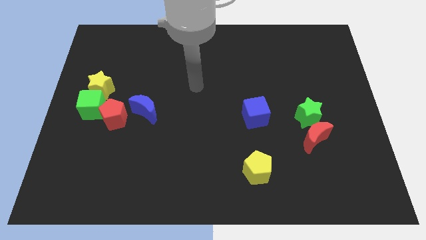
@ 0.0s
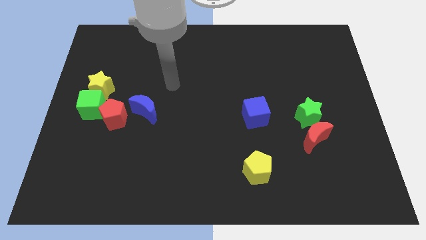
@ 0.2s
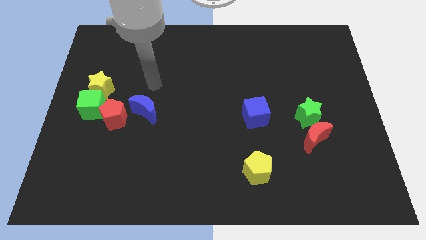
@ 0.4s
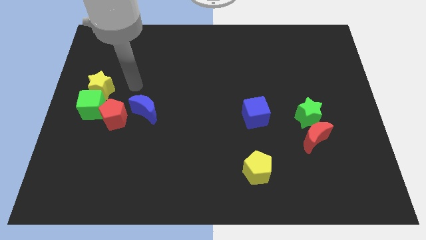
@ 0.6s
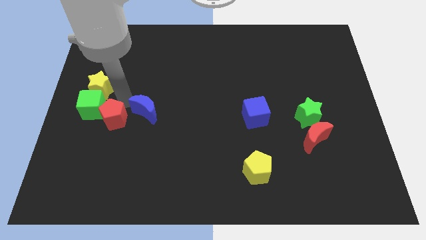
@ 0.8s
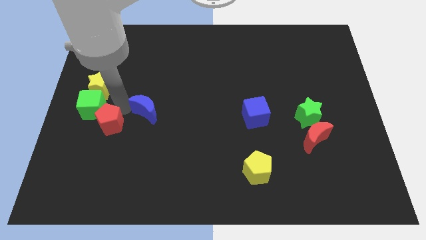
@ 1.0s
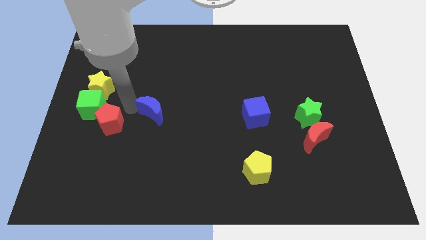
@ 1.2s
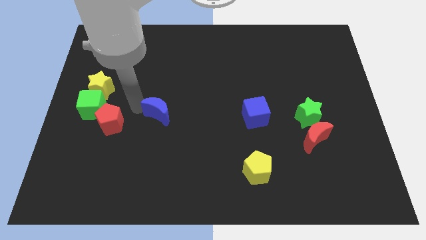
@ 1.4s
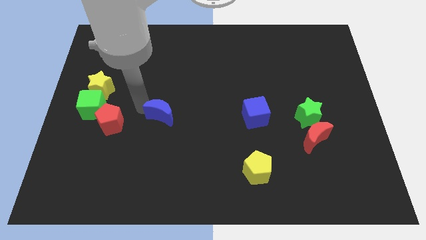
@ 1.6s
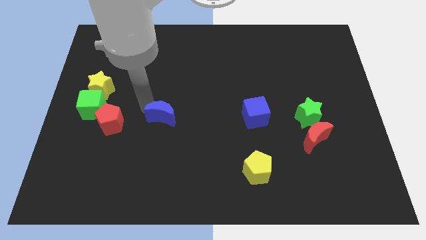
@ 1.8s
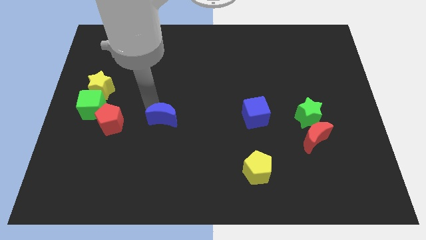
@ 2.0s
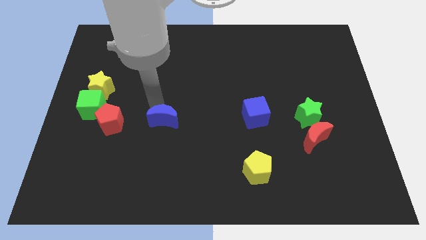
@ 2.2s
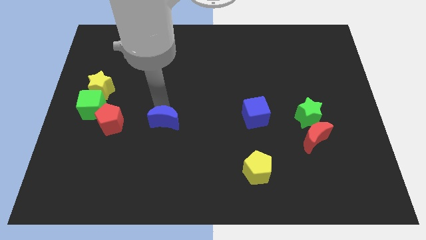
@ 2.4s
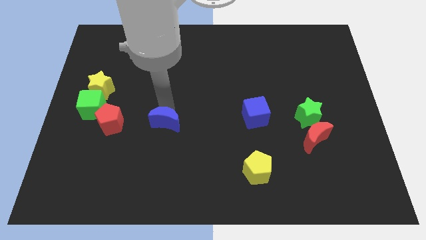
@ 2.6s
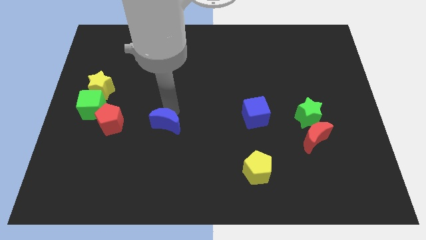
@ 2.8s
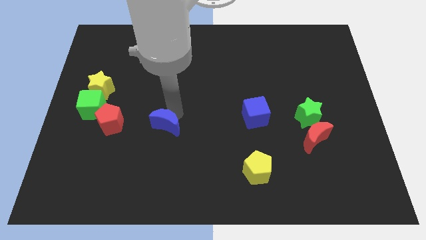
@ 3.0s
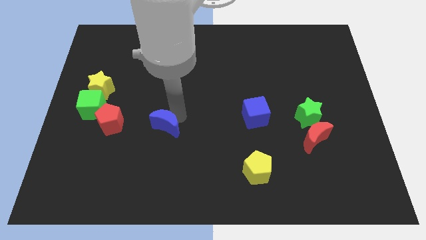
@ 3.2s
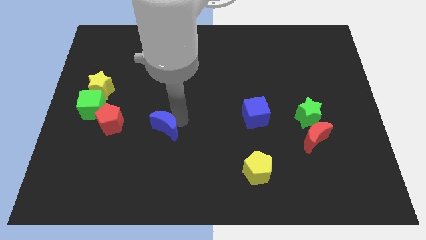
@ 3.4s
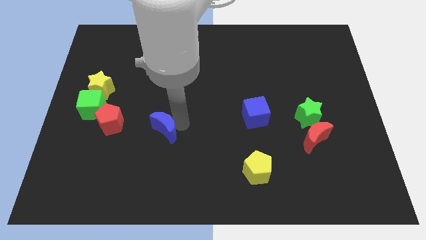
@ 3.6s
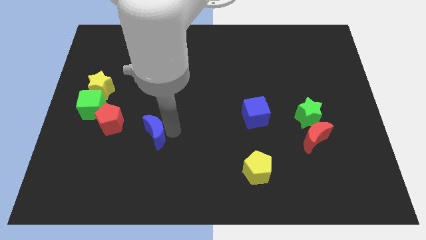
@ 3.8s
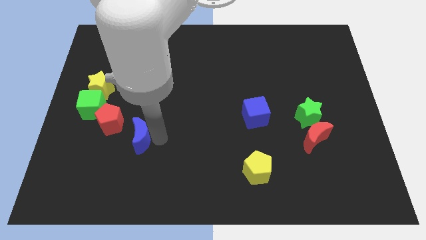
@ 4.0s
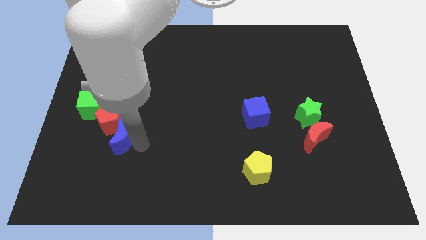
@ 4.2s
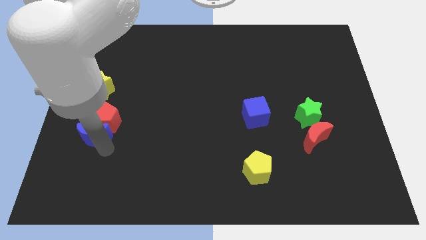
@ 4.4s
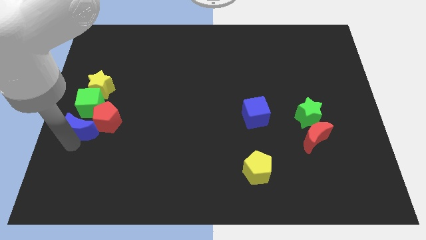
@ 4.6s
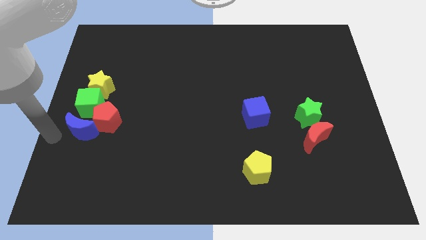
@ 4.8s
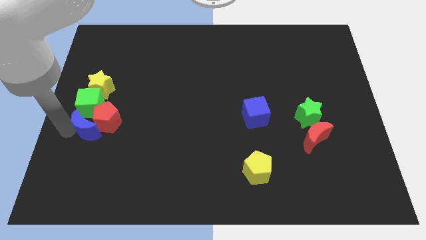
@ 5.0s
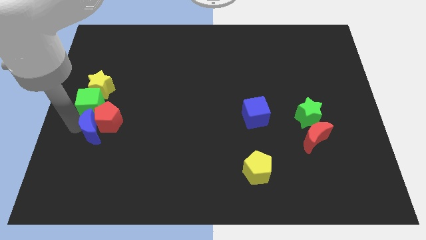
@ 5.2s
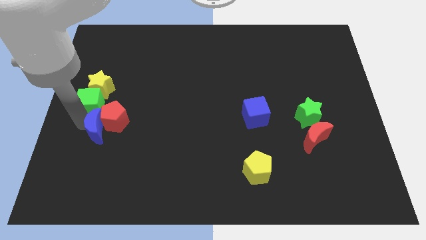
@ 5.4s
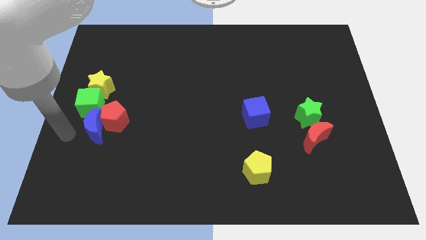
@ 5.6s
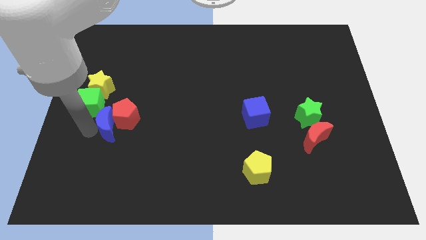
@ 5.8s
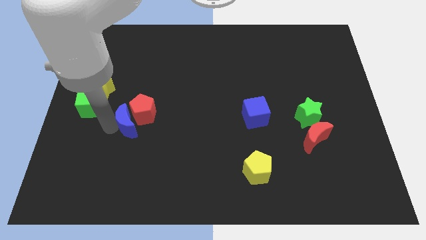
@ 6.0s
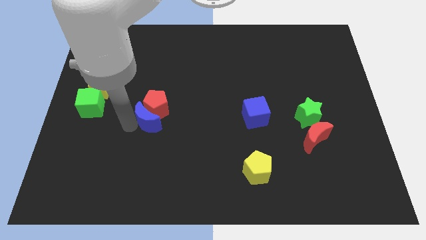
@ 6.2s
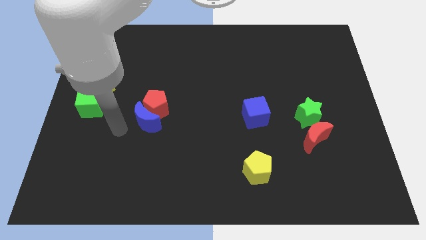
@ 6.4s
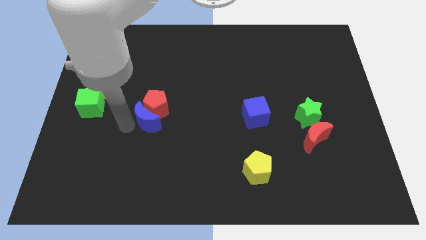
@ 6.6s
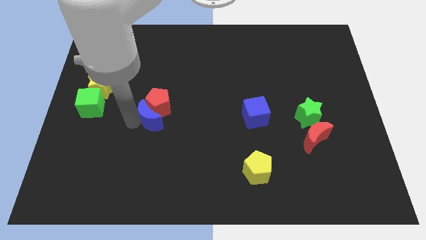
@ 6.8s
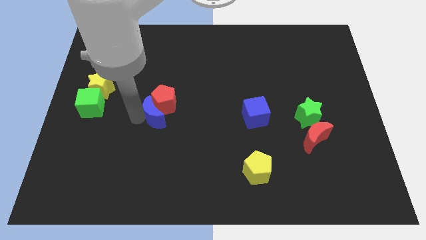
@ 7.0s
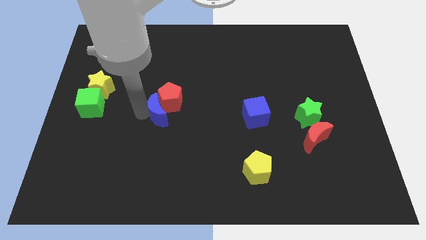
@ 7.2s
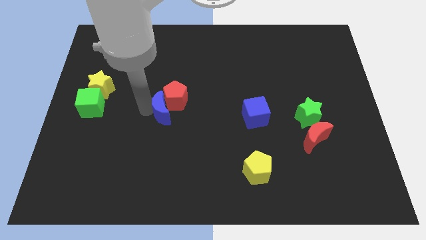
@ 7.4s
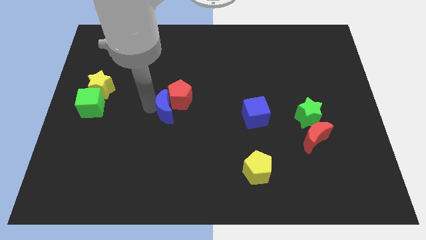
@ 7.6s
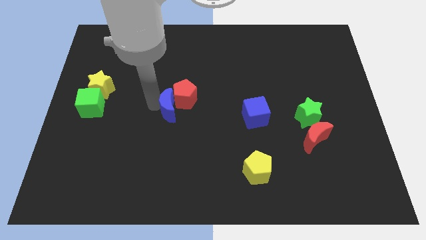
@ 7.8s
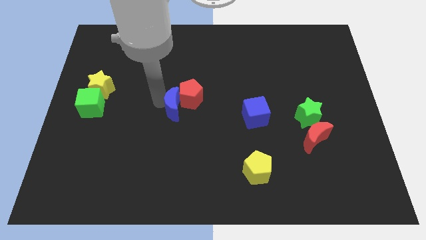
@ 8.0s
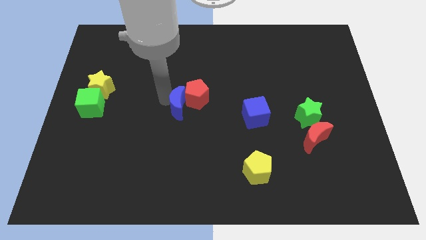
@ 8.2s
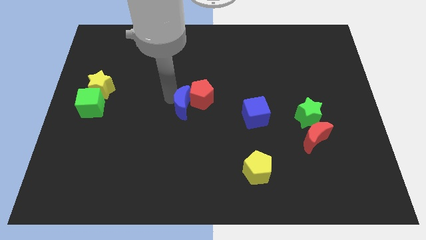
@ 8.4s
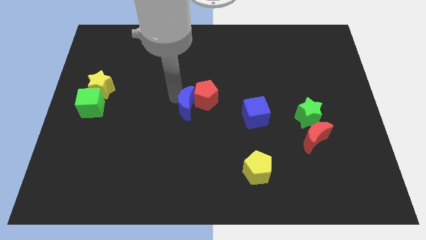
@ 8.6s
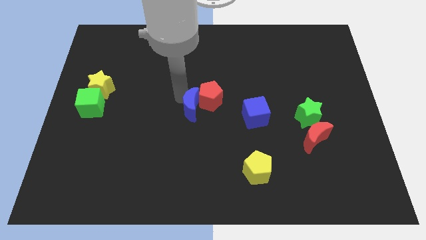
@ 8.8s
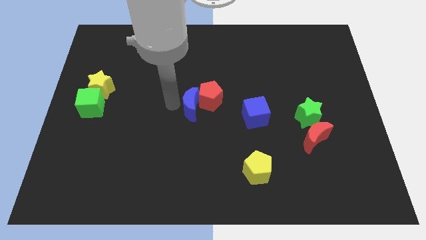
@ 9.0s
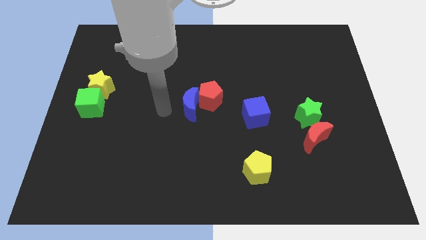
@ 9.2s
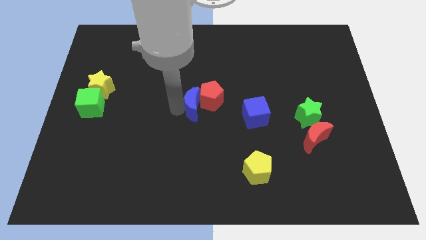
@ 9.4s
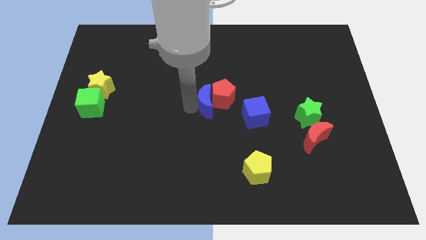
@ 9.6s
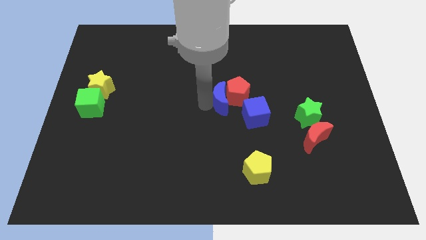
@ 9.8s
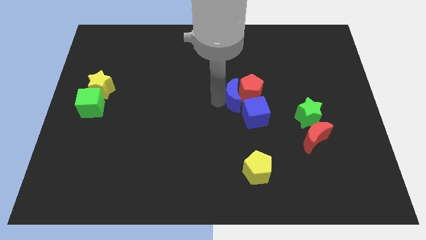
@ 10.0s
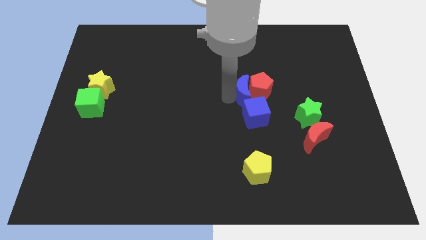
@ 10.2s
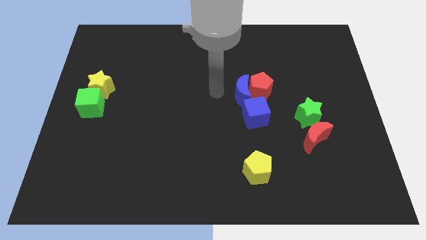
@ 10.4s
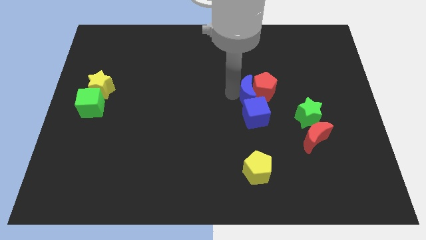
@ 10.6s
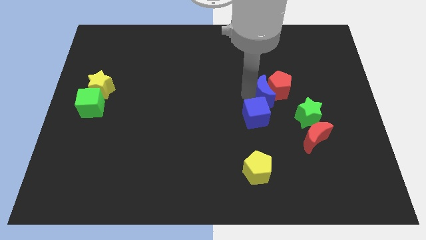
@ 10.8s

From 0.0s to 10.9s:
push the blue moon diagonally up and to the left of the green star

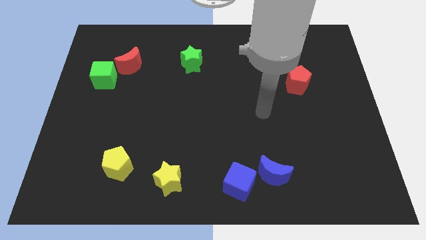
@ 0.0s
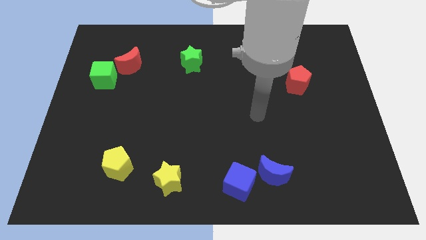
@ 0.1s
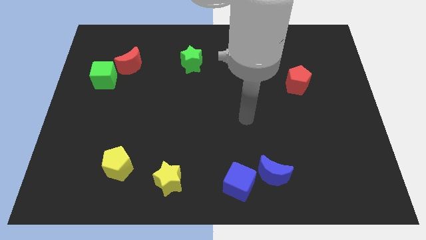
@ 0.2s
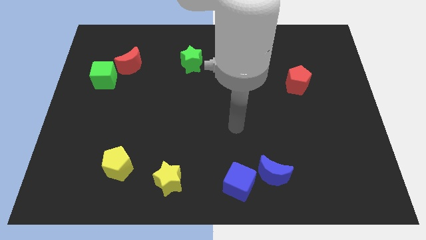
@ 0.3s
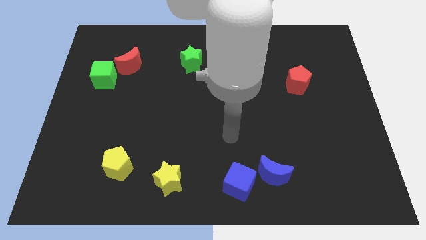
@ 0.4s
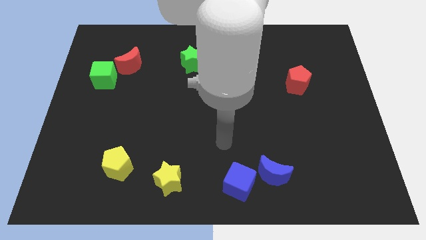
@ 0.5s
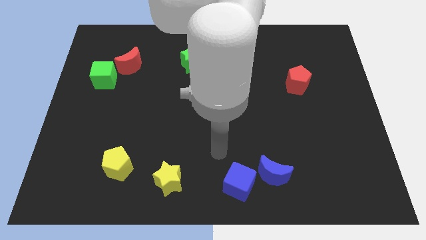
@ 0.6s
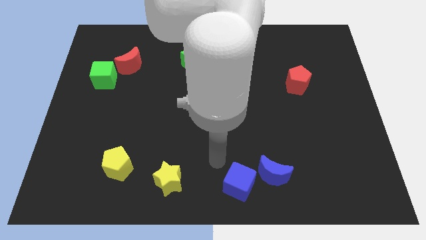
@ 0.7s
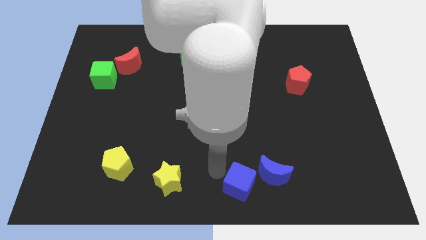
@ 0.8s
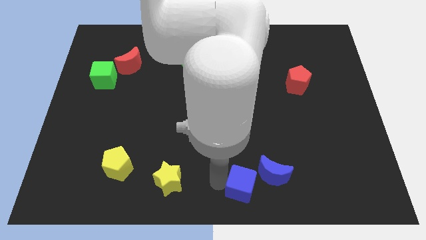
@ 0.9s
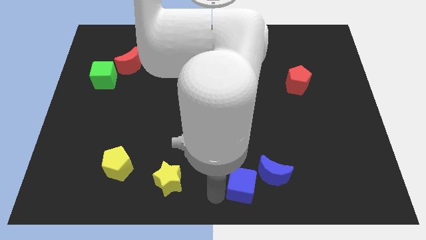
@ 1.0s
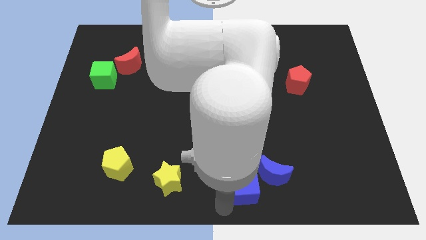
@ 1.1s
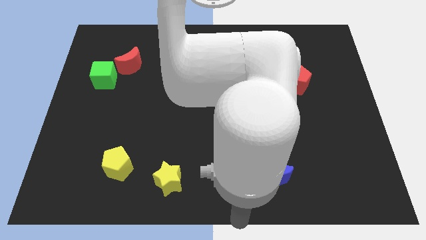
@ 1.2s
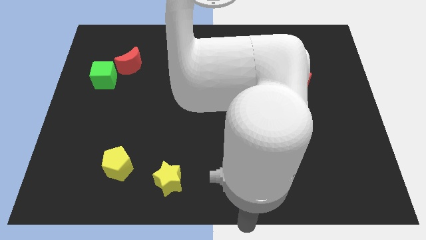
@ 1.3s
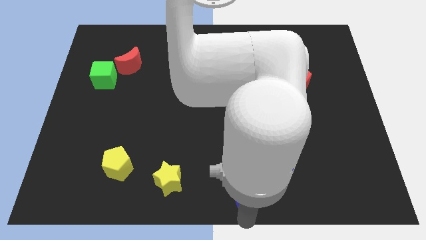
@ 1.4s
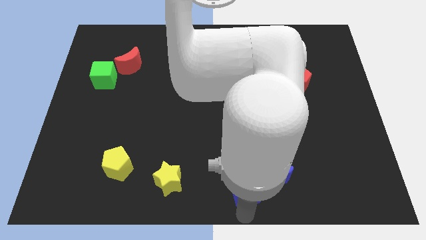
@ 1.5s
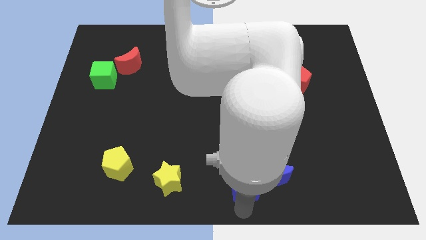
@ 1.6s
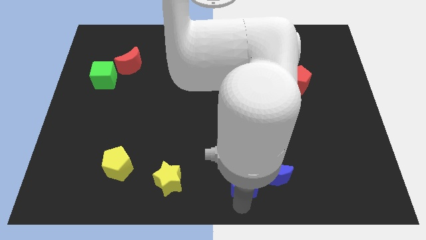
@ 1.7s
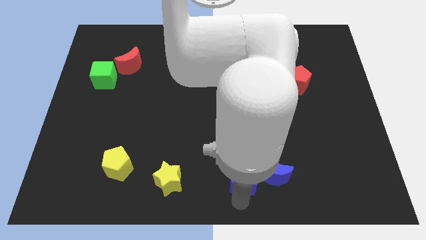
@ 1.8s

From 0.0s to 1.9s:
move the blue cube diagonally up and to the left of the blue moon

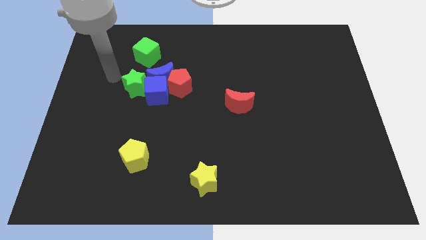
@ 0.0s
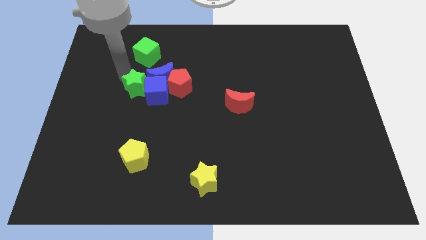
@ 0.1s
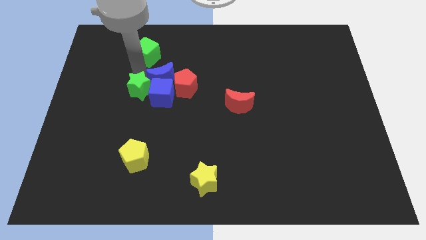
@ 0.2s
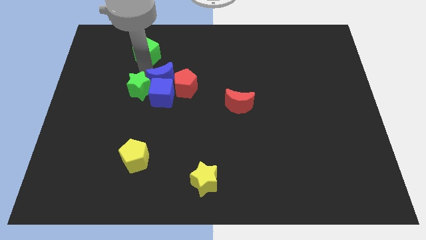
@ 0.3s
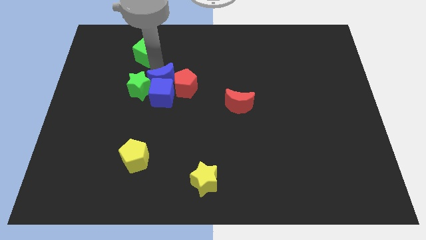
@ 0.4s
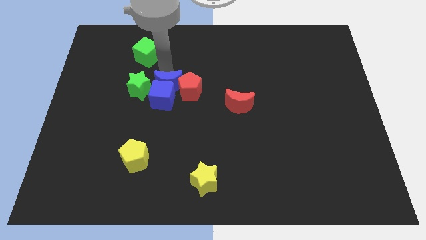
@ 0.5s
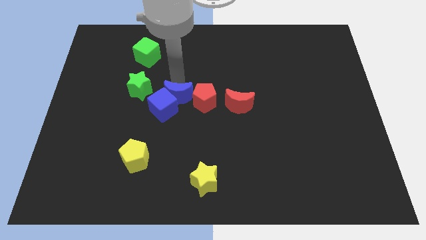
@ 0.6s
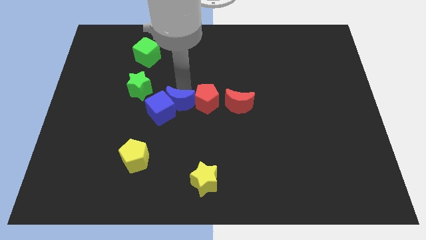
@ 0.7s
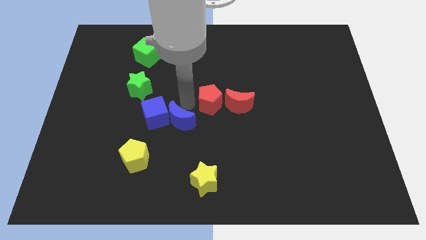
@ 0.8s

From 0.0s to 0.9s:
move the blue cube to the bottom side of the green star
